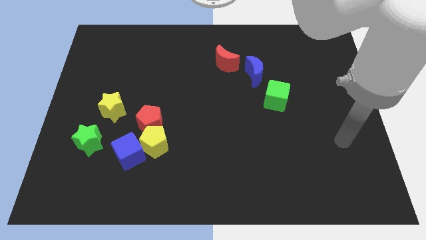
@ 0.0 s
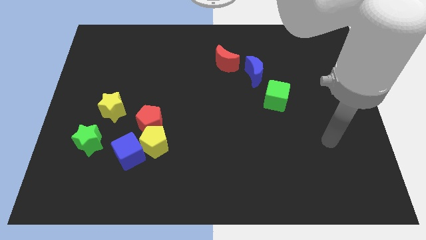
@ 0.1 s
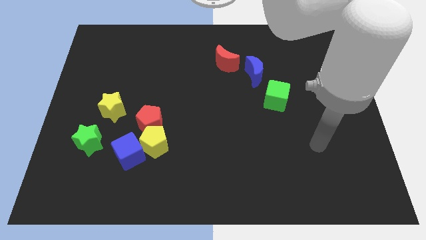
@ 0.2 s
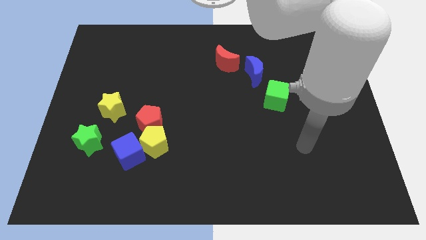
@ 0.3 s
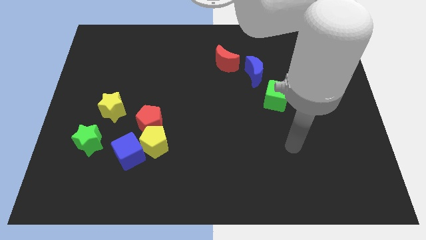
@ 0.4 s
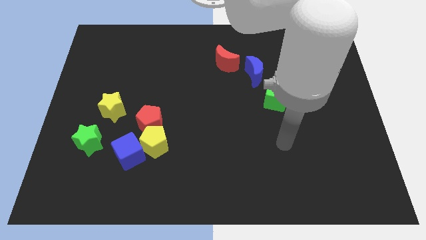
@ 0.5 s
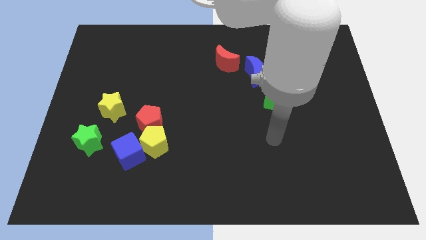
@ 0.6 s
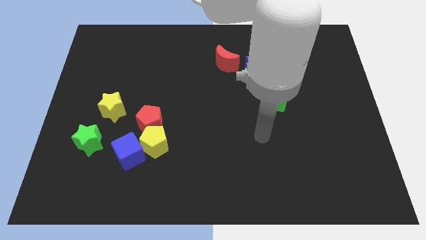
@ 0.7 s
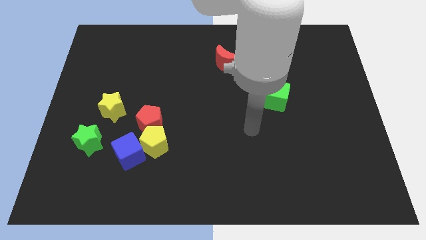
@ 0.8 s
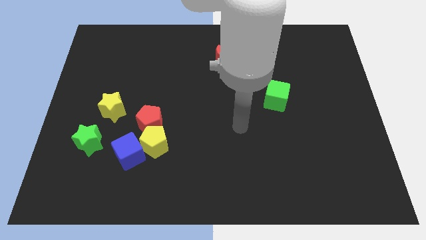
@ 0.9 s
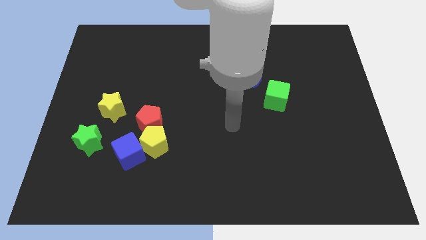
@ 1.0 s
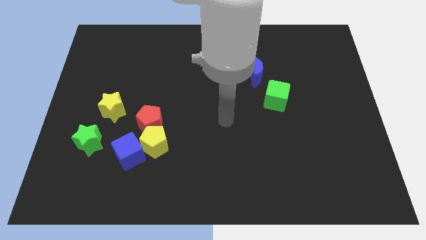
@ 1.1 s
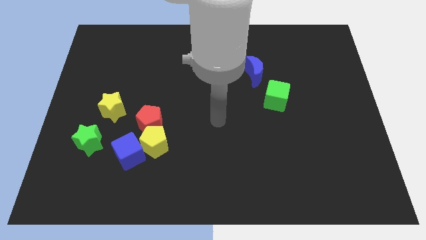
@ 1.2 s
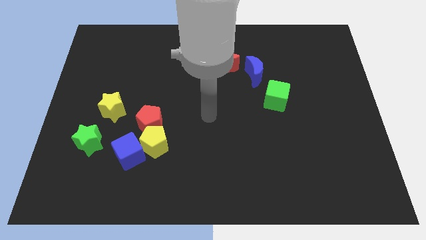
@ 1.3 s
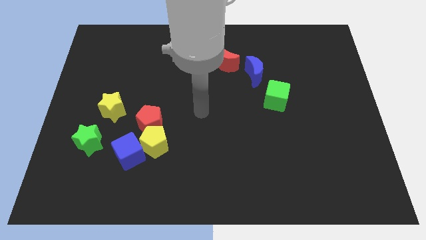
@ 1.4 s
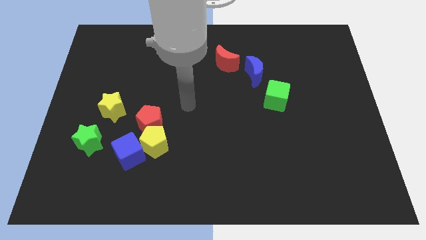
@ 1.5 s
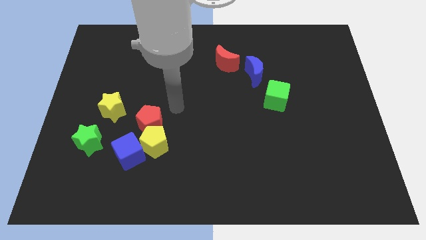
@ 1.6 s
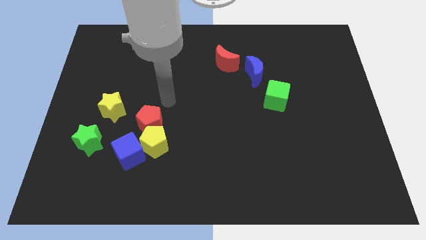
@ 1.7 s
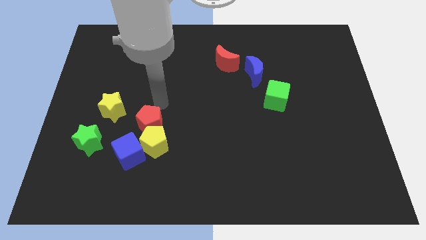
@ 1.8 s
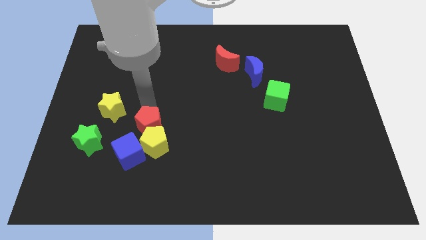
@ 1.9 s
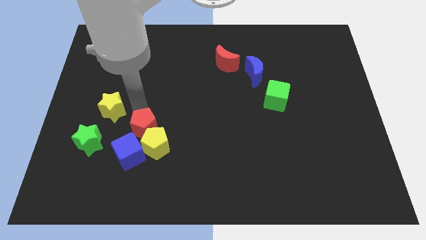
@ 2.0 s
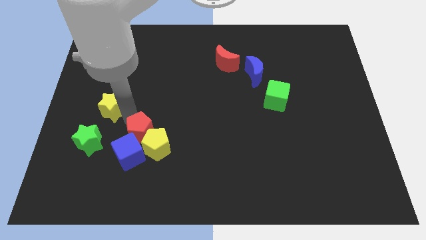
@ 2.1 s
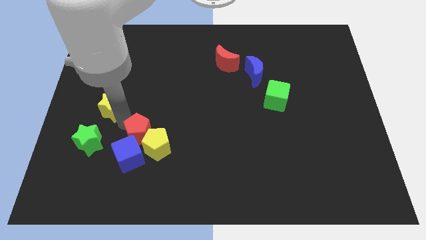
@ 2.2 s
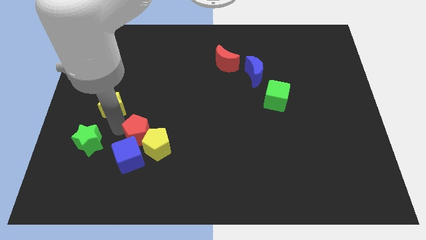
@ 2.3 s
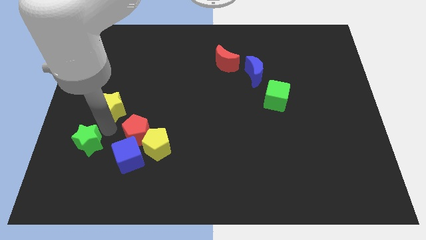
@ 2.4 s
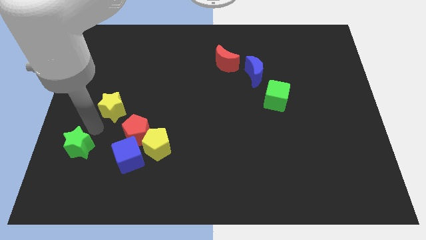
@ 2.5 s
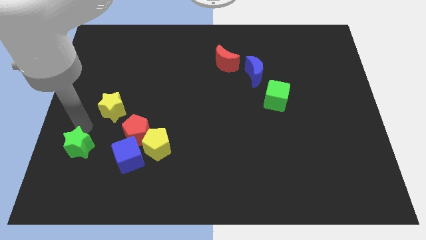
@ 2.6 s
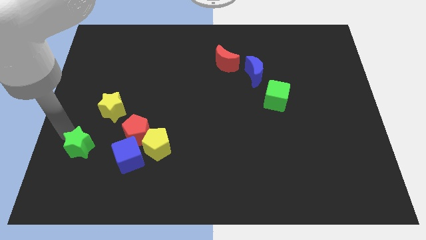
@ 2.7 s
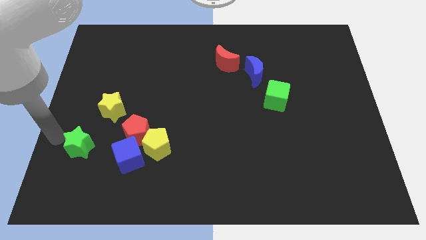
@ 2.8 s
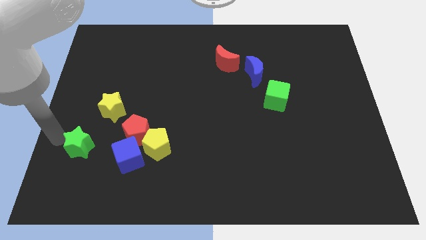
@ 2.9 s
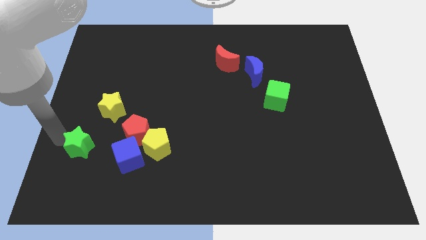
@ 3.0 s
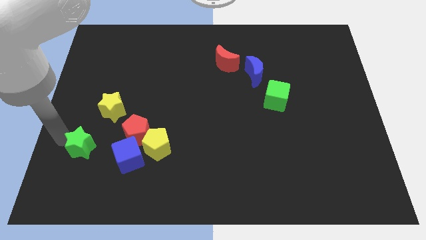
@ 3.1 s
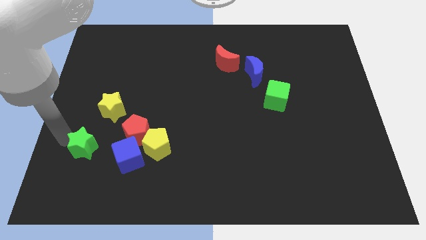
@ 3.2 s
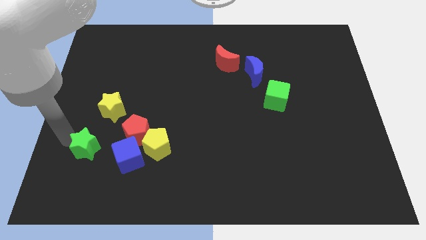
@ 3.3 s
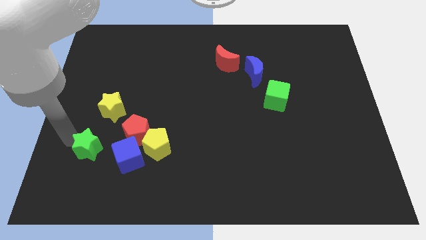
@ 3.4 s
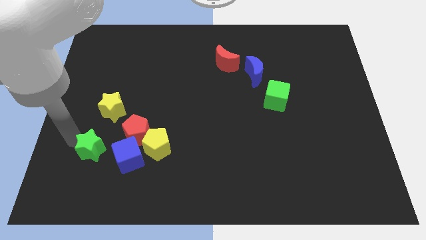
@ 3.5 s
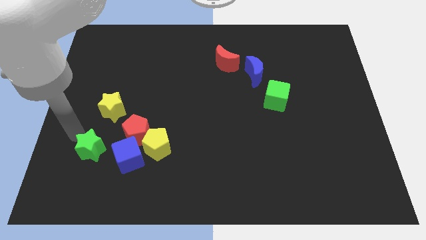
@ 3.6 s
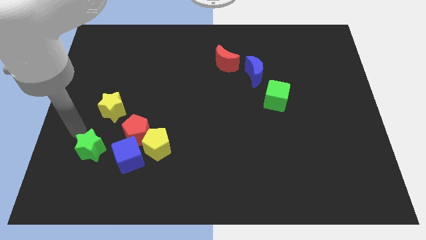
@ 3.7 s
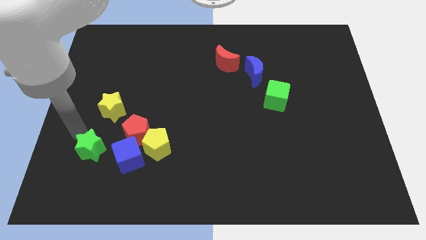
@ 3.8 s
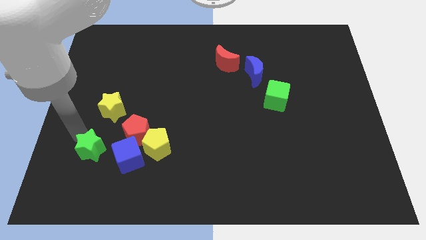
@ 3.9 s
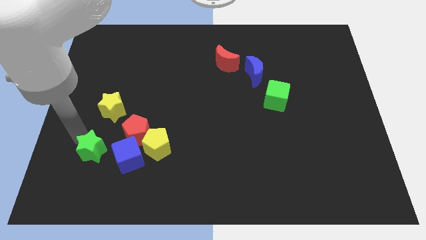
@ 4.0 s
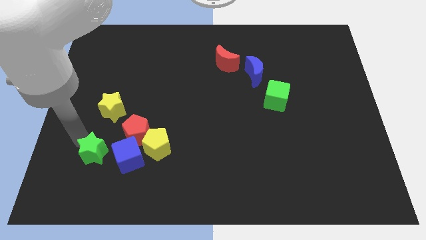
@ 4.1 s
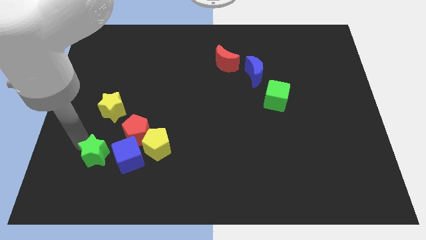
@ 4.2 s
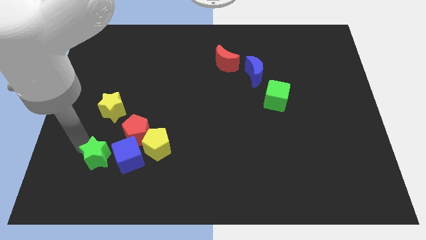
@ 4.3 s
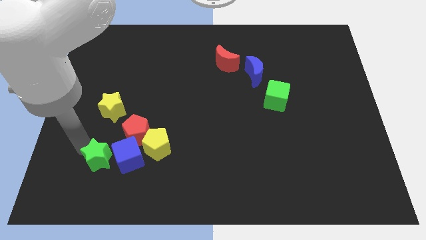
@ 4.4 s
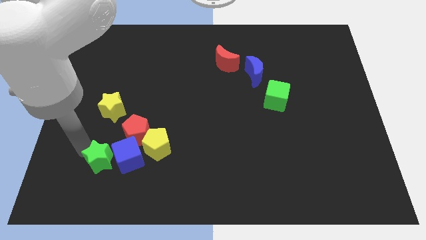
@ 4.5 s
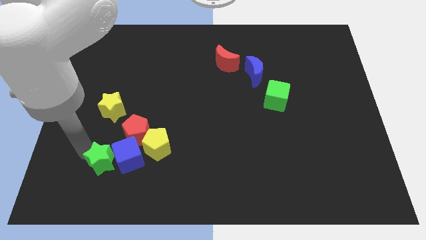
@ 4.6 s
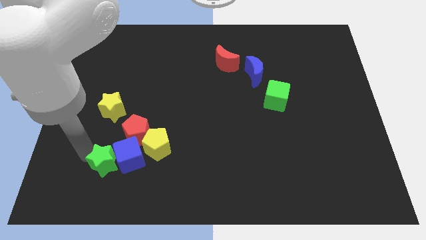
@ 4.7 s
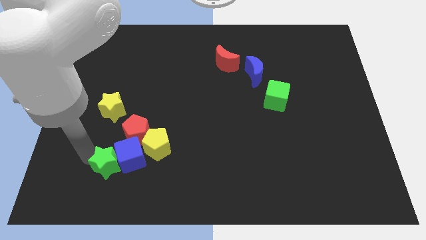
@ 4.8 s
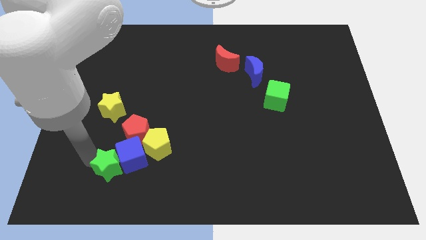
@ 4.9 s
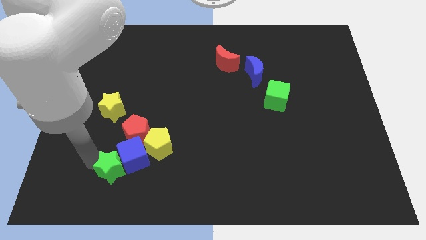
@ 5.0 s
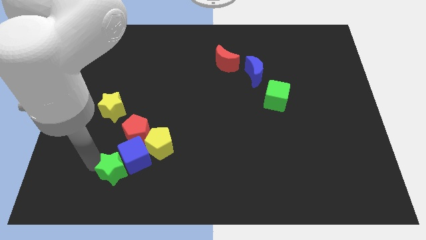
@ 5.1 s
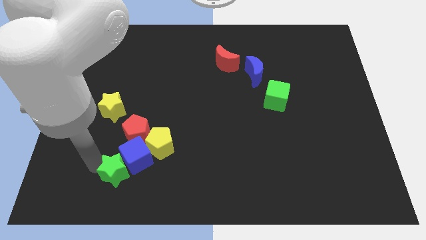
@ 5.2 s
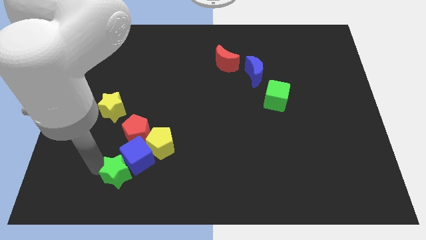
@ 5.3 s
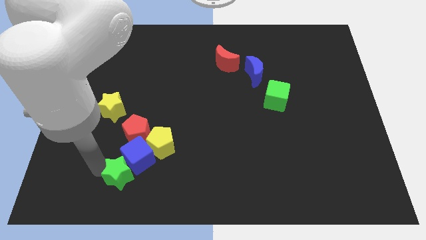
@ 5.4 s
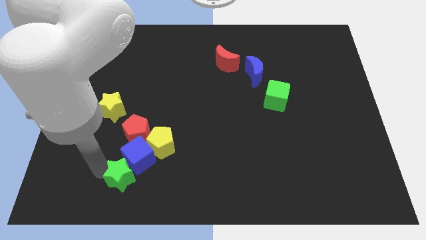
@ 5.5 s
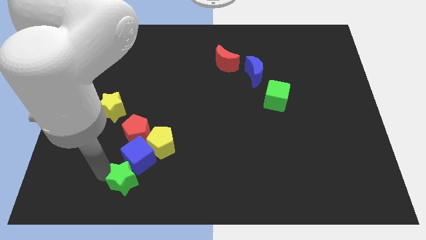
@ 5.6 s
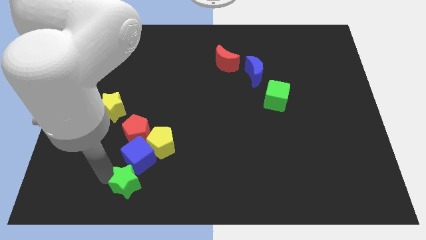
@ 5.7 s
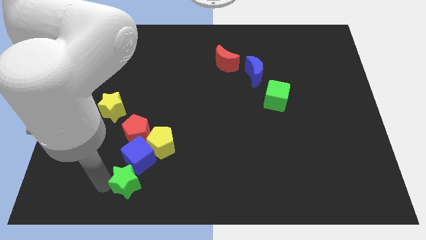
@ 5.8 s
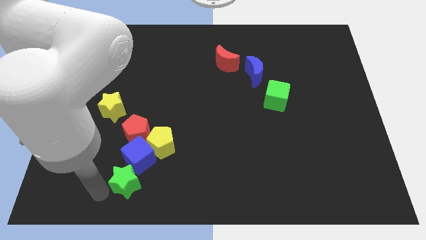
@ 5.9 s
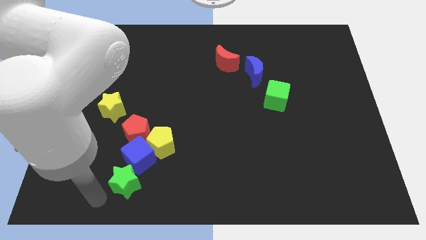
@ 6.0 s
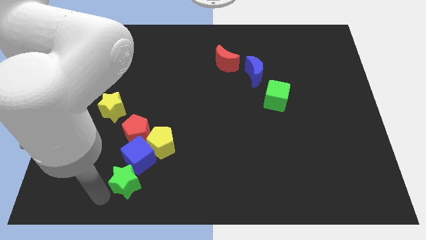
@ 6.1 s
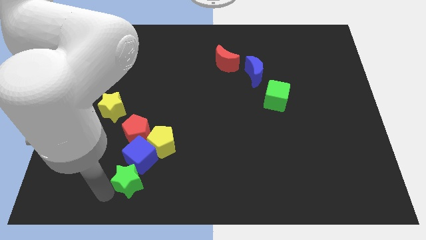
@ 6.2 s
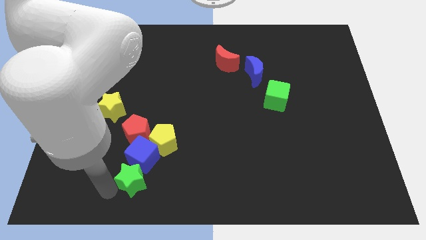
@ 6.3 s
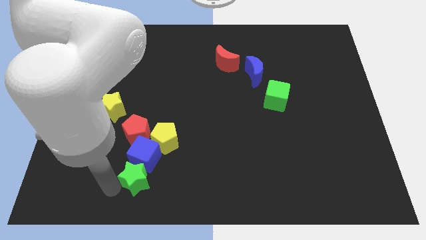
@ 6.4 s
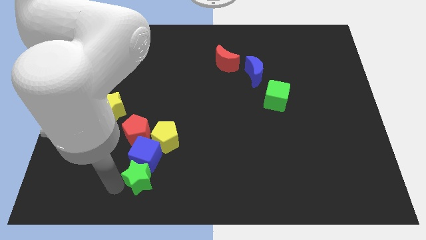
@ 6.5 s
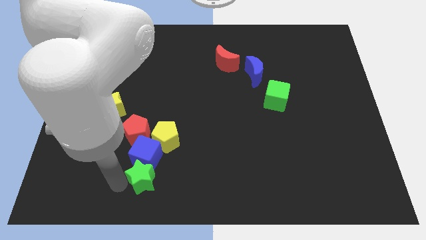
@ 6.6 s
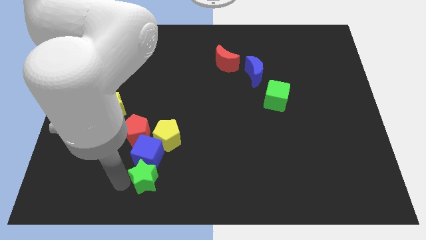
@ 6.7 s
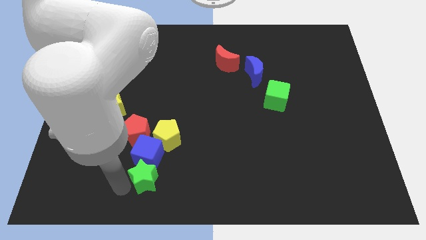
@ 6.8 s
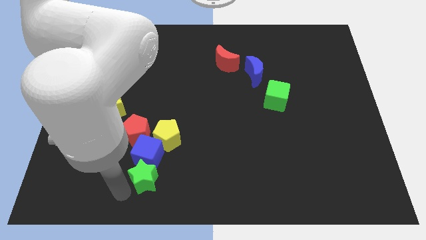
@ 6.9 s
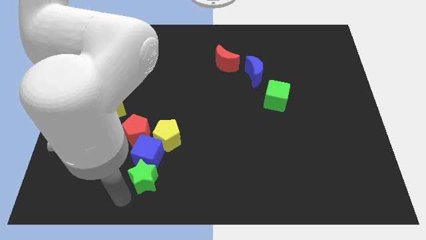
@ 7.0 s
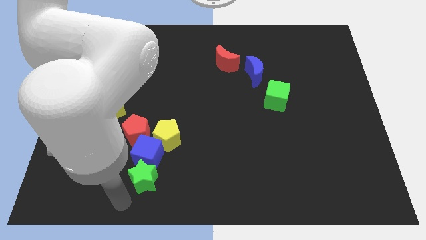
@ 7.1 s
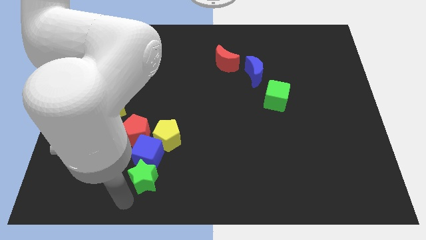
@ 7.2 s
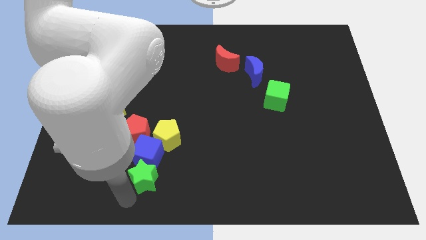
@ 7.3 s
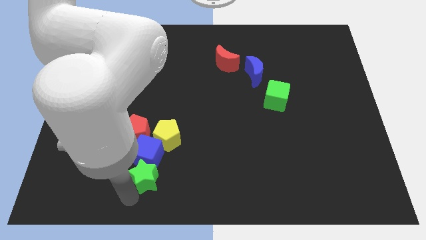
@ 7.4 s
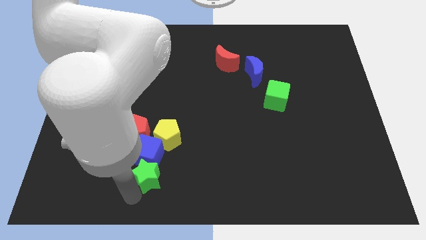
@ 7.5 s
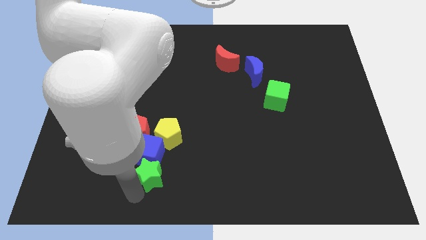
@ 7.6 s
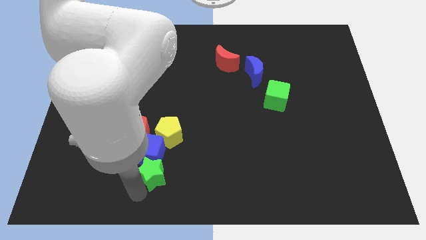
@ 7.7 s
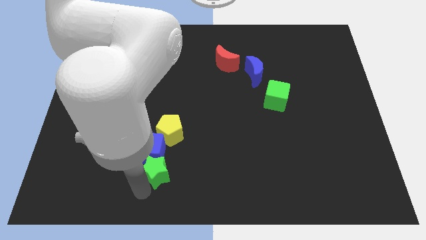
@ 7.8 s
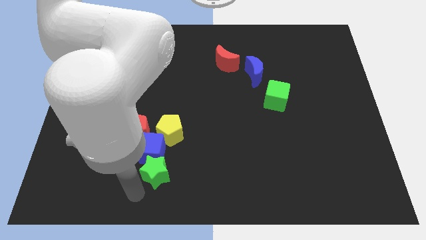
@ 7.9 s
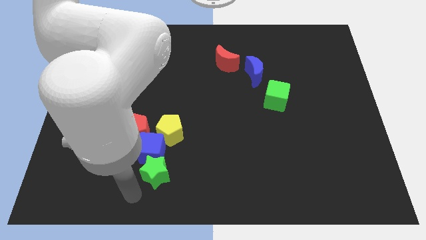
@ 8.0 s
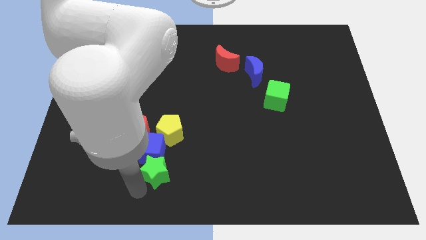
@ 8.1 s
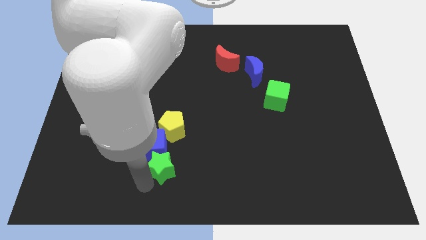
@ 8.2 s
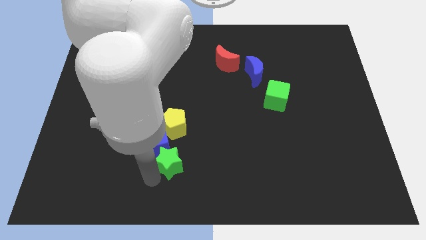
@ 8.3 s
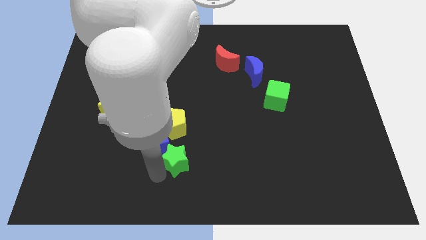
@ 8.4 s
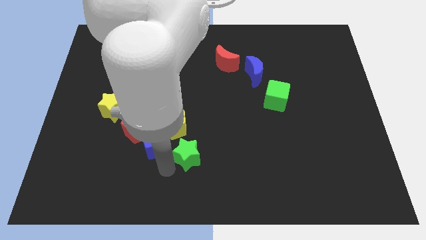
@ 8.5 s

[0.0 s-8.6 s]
push the green star to the right
